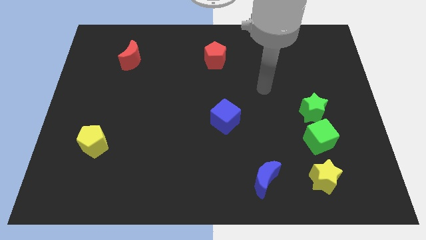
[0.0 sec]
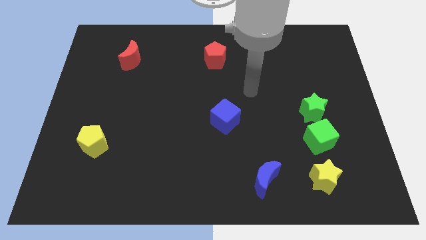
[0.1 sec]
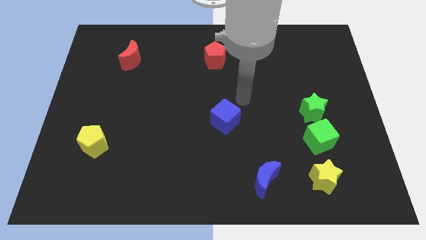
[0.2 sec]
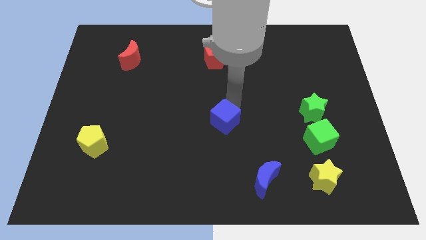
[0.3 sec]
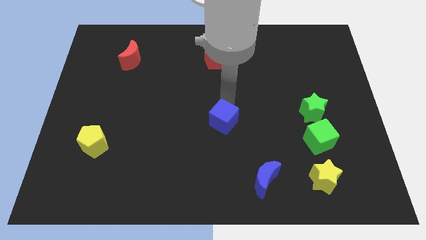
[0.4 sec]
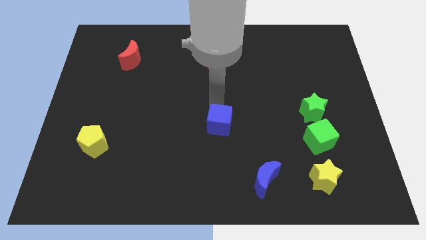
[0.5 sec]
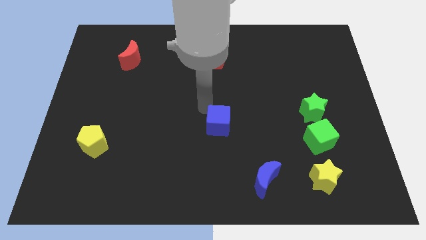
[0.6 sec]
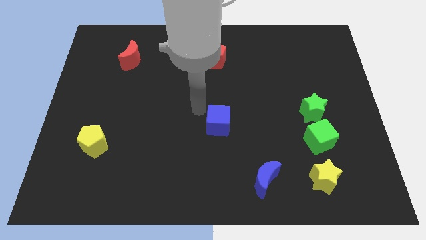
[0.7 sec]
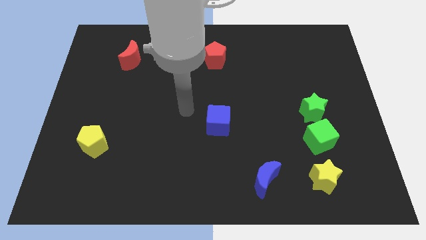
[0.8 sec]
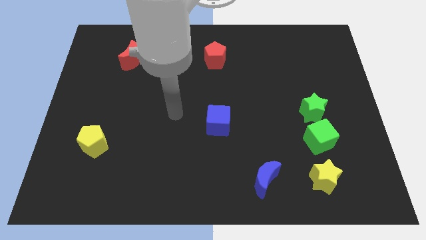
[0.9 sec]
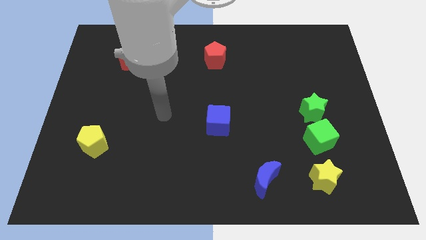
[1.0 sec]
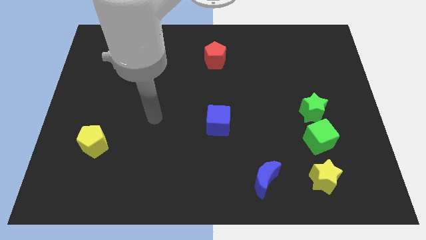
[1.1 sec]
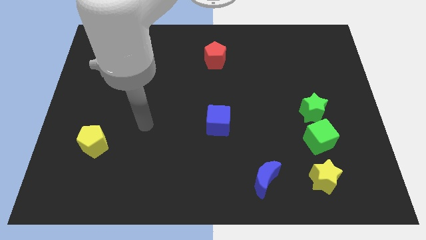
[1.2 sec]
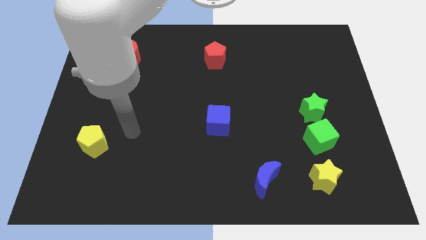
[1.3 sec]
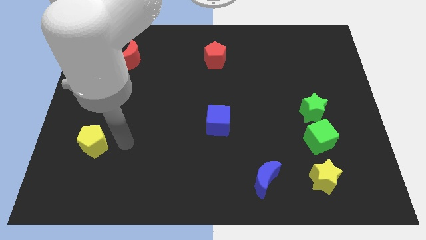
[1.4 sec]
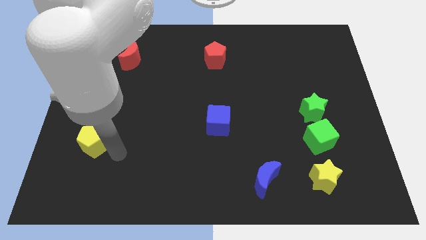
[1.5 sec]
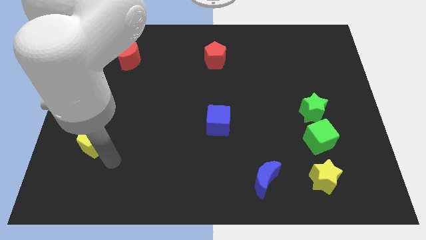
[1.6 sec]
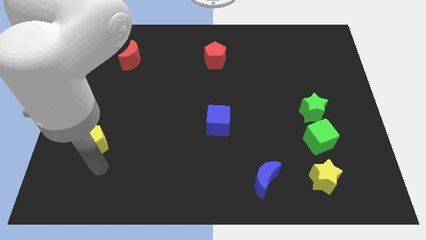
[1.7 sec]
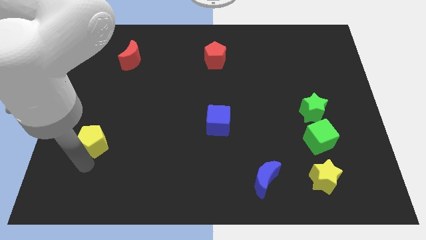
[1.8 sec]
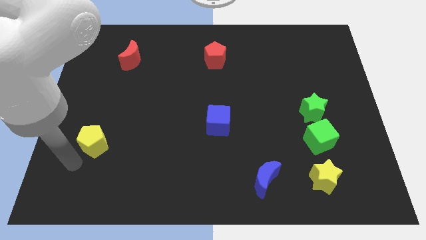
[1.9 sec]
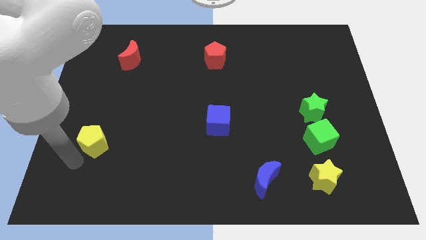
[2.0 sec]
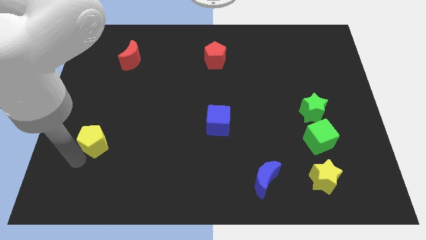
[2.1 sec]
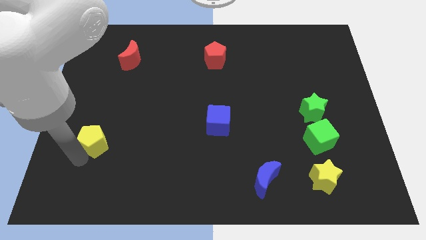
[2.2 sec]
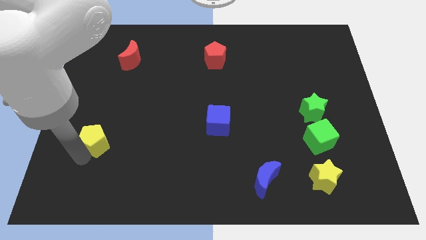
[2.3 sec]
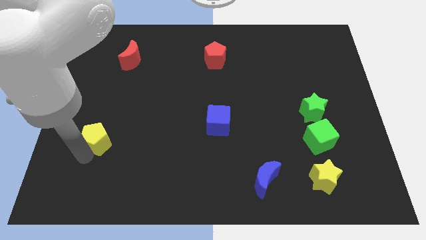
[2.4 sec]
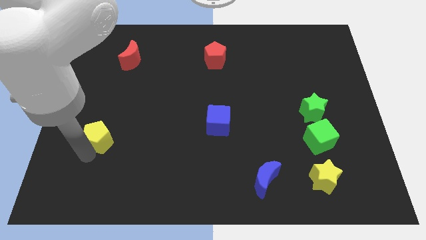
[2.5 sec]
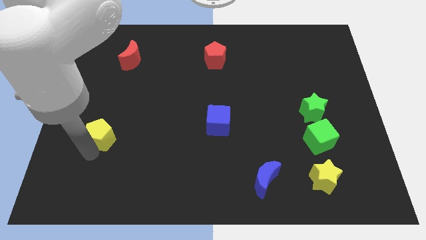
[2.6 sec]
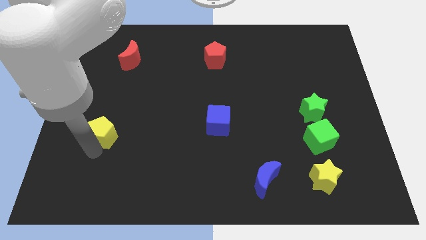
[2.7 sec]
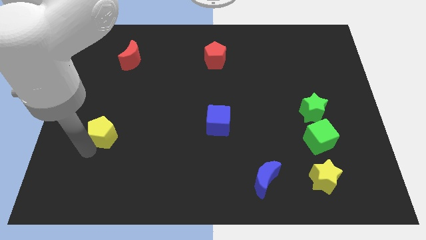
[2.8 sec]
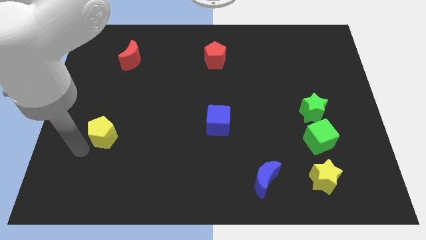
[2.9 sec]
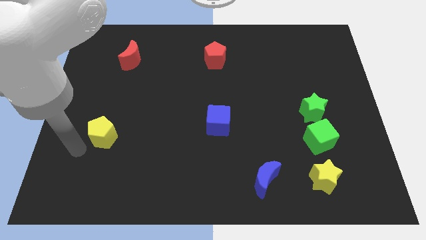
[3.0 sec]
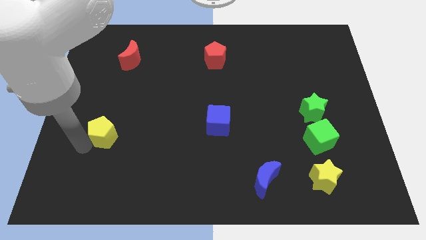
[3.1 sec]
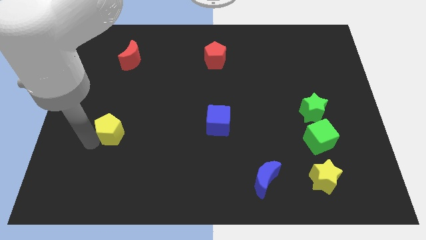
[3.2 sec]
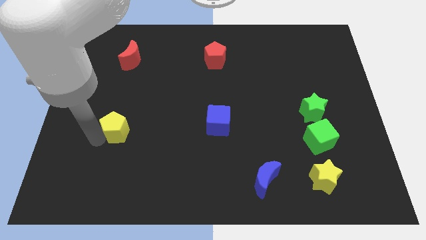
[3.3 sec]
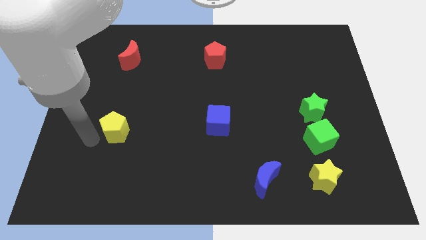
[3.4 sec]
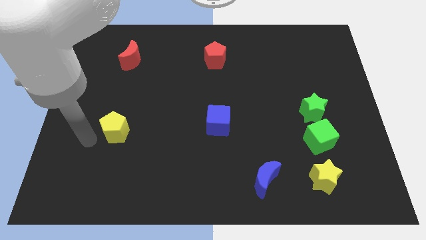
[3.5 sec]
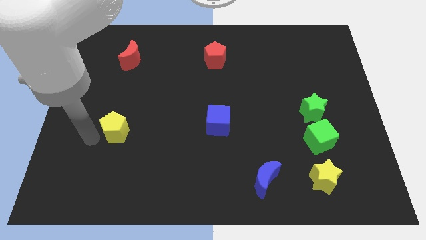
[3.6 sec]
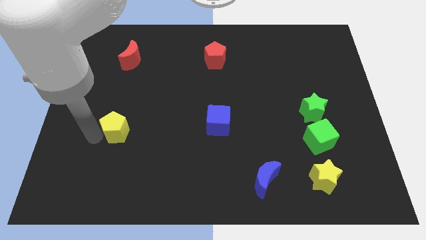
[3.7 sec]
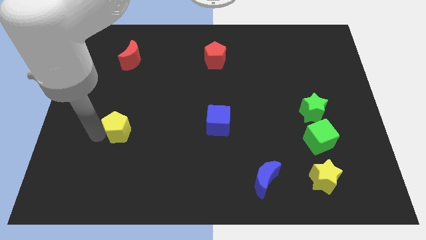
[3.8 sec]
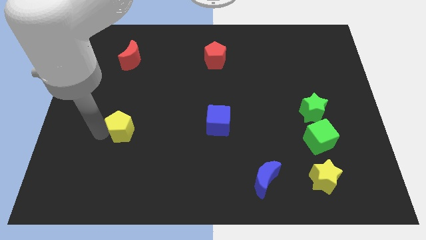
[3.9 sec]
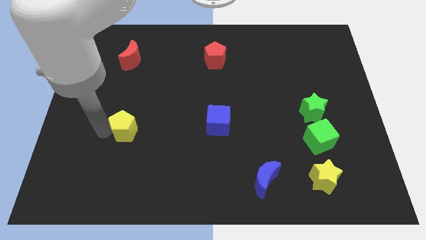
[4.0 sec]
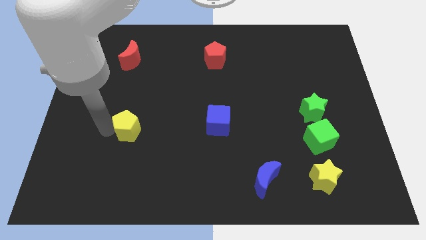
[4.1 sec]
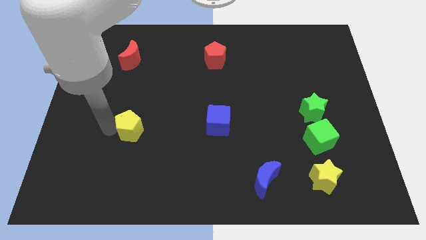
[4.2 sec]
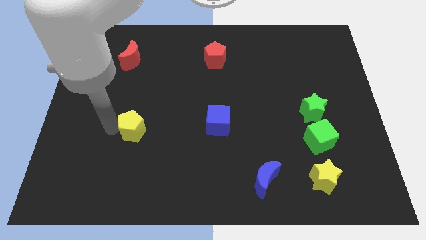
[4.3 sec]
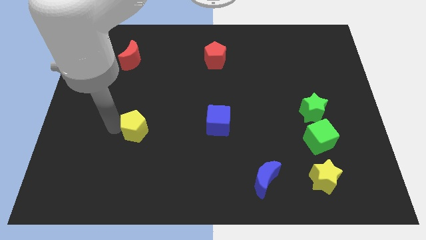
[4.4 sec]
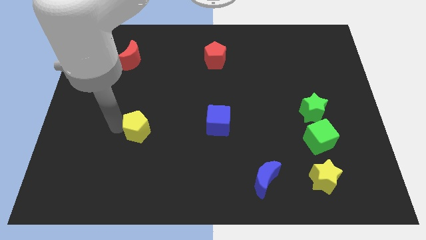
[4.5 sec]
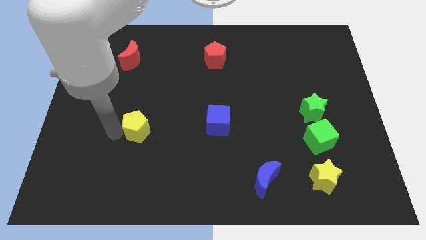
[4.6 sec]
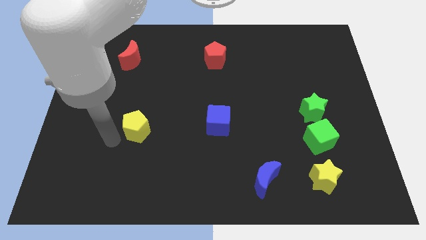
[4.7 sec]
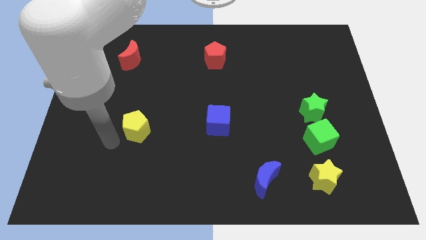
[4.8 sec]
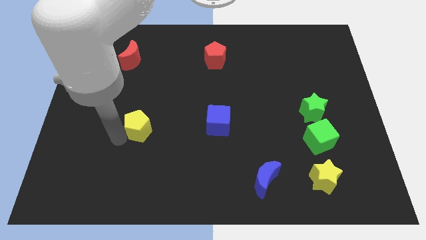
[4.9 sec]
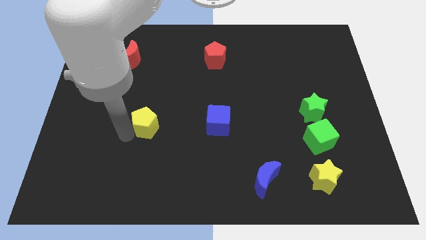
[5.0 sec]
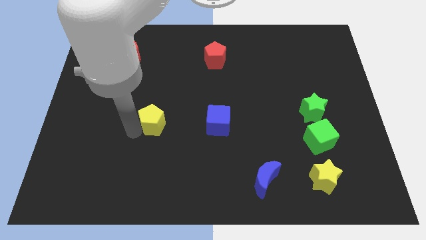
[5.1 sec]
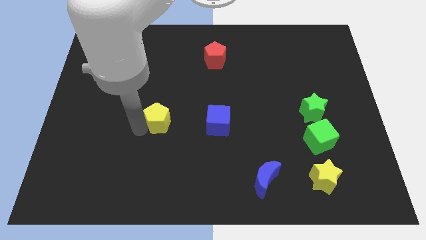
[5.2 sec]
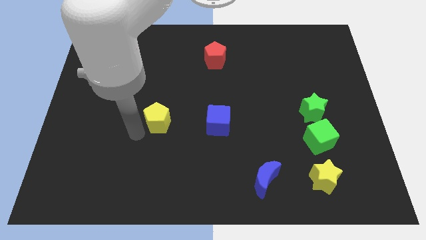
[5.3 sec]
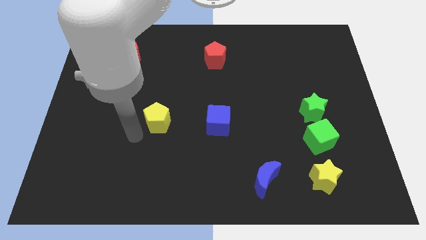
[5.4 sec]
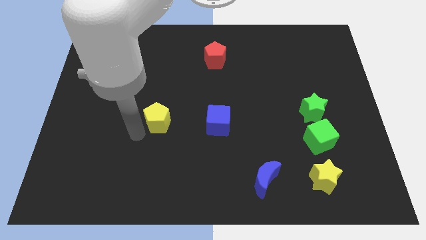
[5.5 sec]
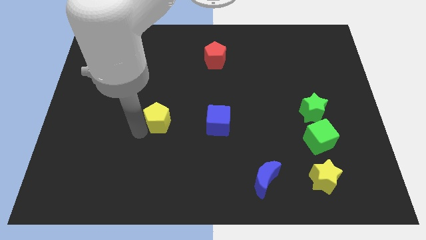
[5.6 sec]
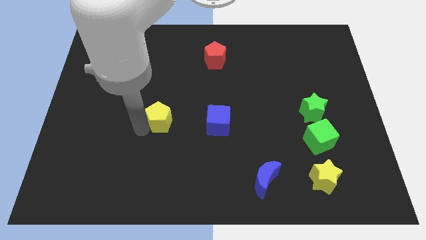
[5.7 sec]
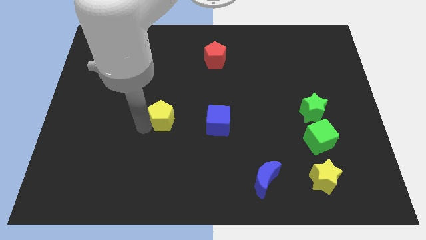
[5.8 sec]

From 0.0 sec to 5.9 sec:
put the yellow pentagon to the middle
